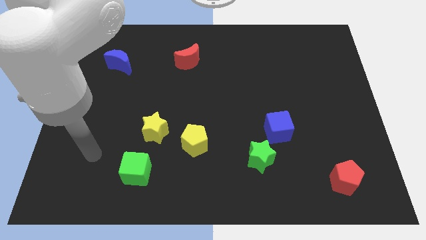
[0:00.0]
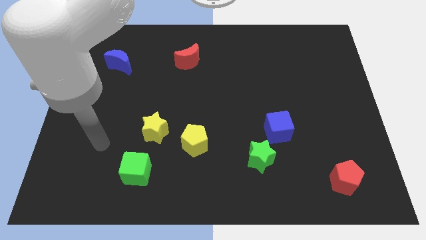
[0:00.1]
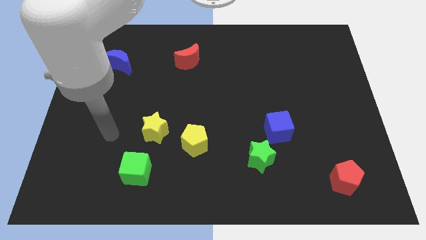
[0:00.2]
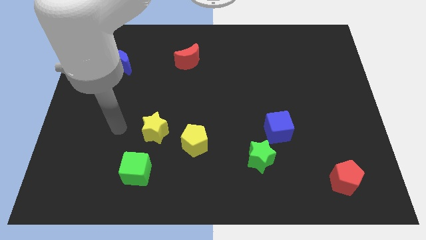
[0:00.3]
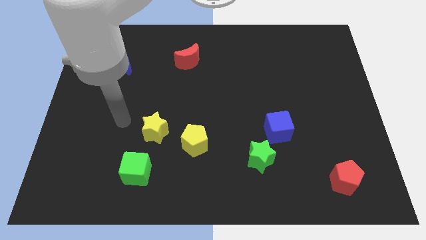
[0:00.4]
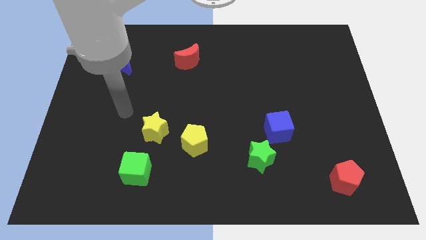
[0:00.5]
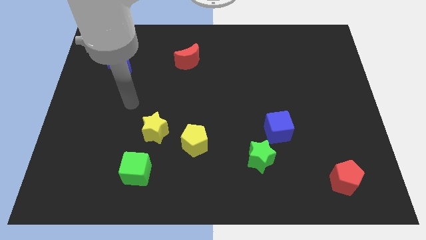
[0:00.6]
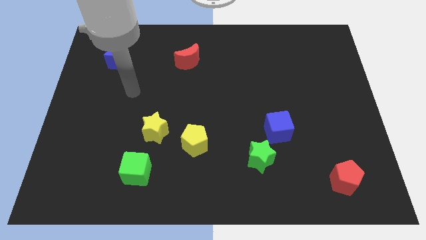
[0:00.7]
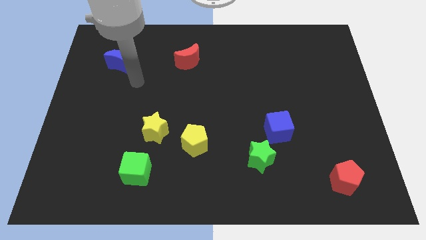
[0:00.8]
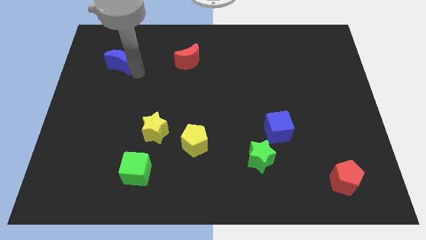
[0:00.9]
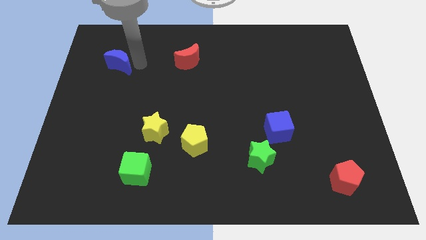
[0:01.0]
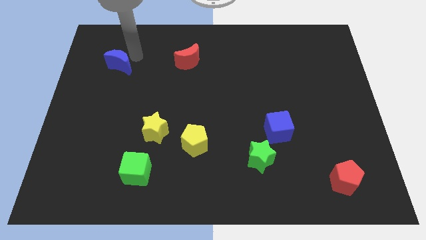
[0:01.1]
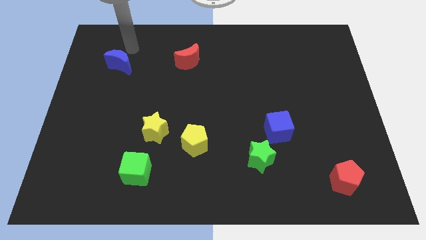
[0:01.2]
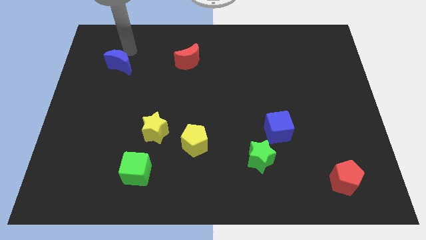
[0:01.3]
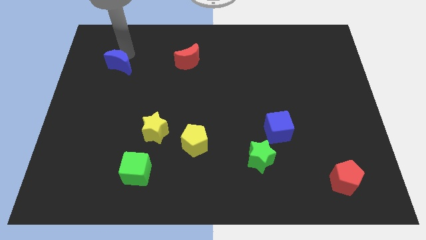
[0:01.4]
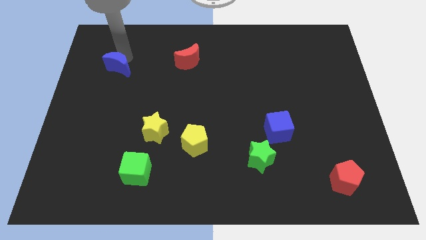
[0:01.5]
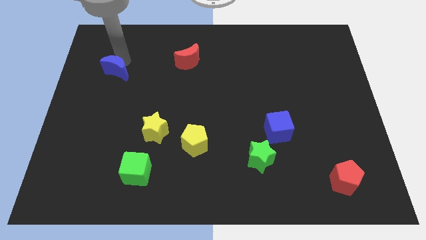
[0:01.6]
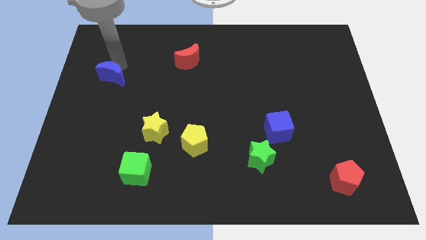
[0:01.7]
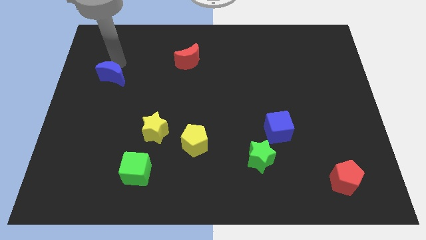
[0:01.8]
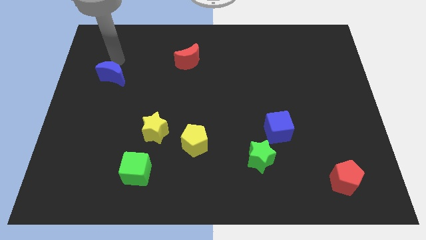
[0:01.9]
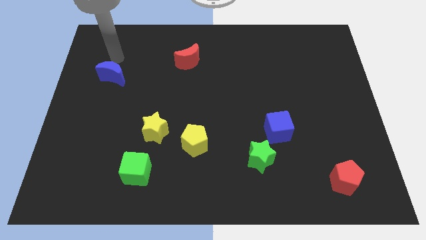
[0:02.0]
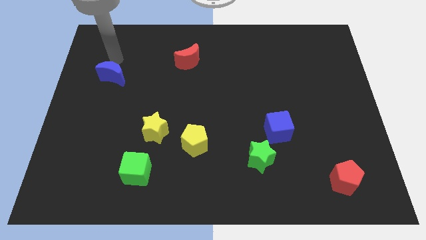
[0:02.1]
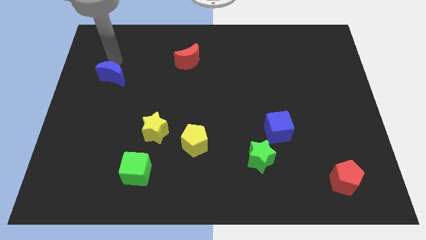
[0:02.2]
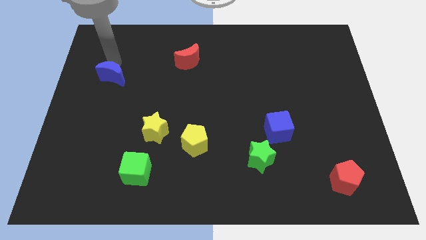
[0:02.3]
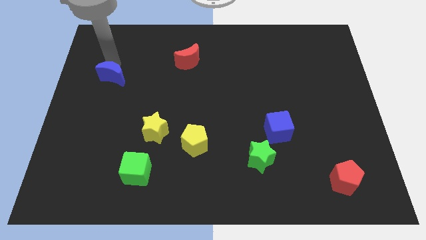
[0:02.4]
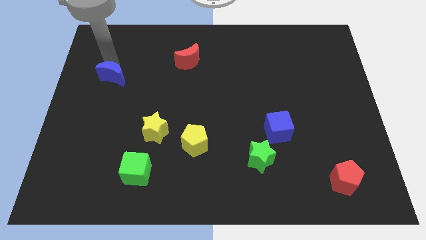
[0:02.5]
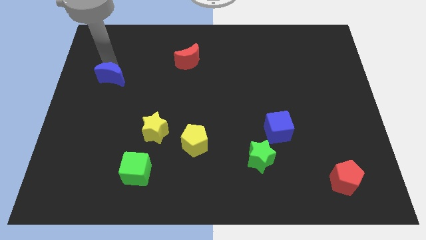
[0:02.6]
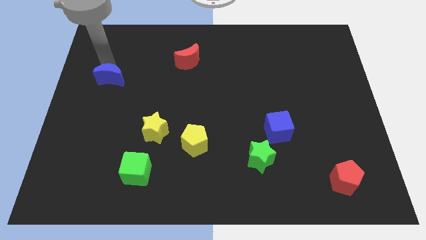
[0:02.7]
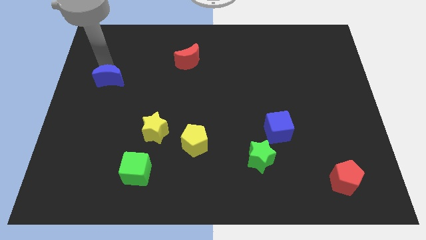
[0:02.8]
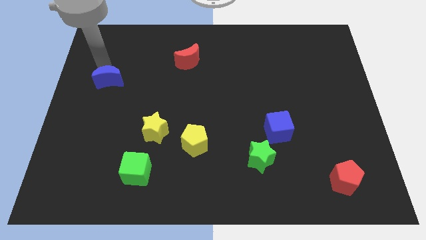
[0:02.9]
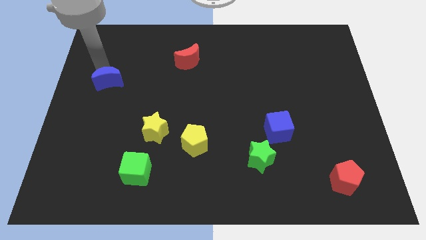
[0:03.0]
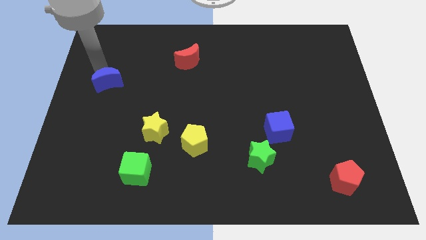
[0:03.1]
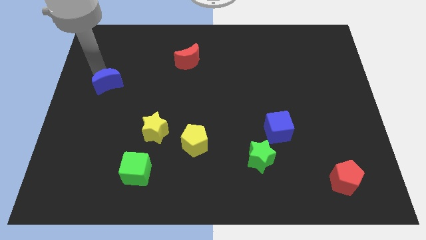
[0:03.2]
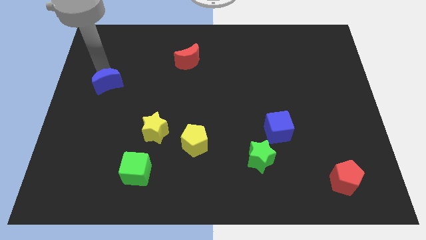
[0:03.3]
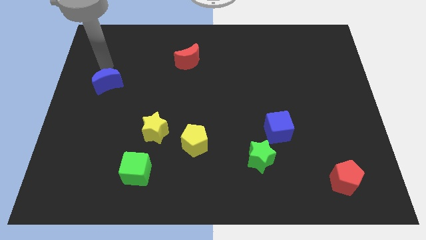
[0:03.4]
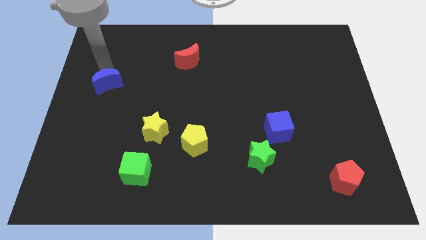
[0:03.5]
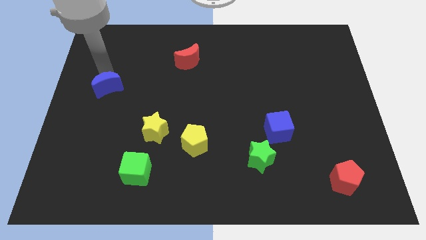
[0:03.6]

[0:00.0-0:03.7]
move the blue moon downwards a bit

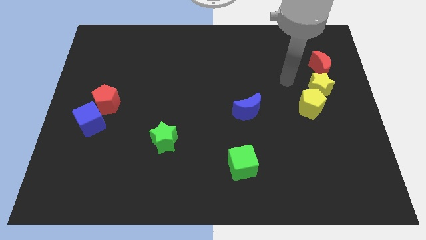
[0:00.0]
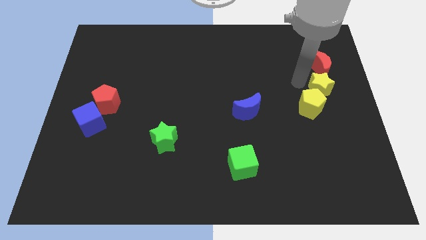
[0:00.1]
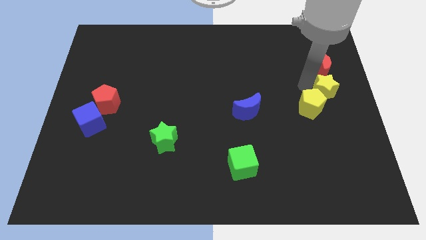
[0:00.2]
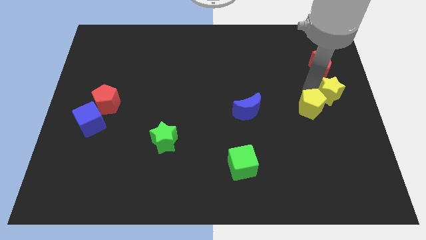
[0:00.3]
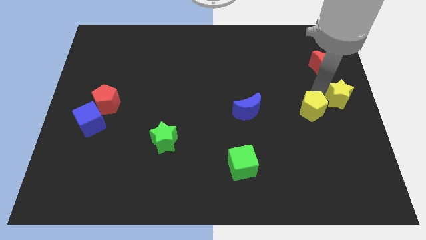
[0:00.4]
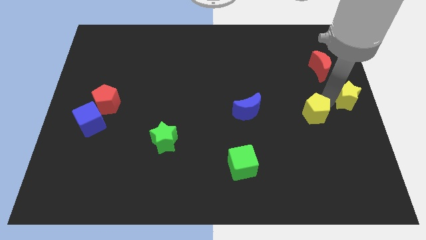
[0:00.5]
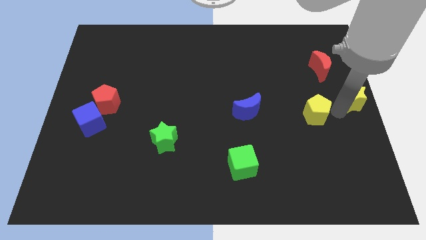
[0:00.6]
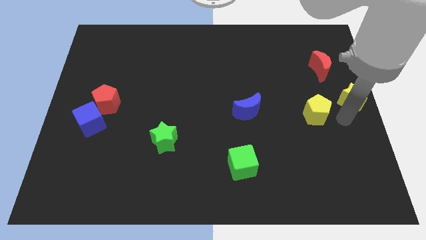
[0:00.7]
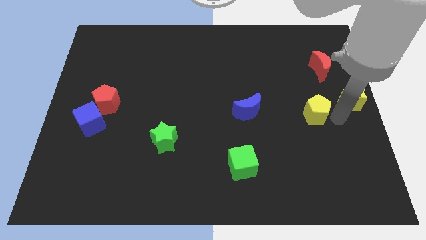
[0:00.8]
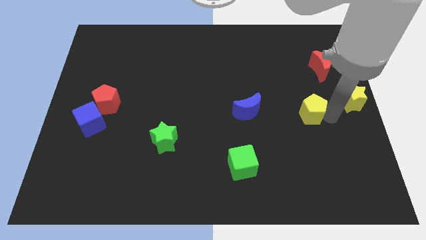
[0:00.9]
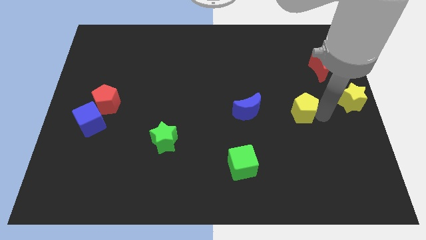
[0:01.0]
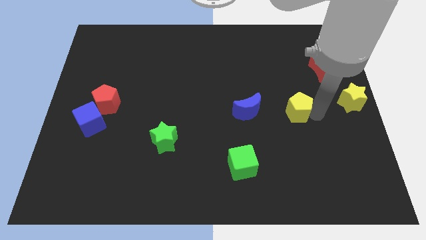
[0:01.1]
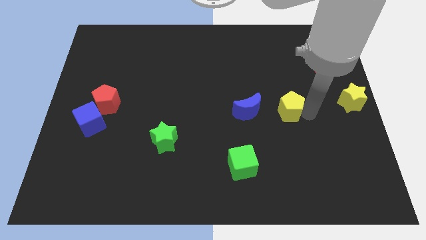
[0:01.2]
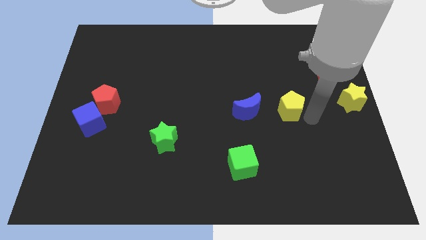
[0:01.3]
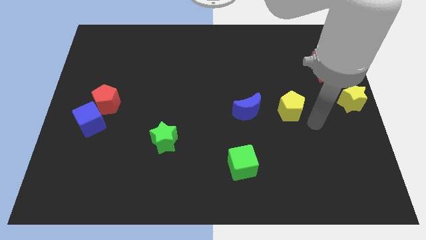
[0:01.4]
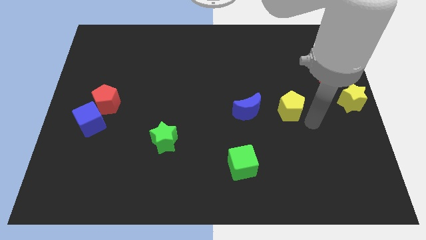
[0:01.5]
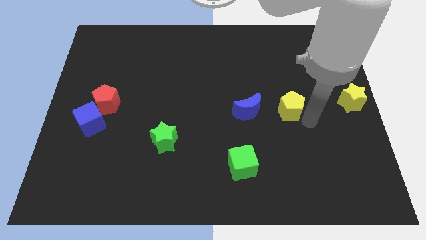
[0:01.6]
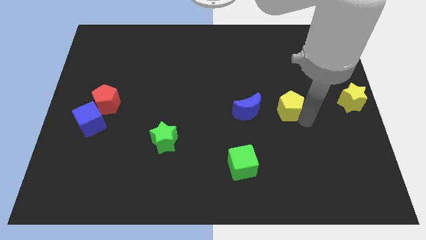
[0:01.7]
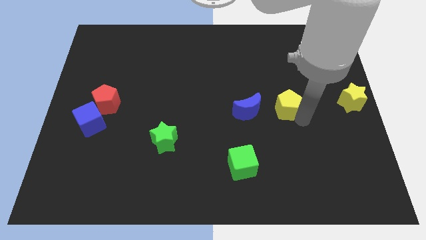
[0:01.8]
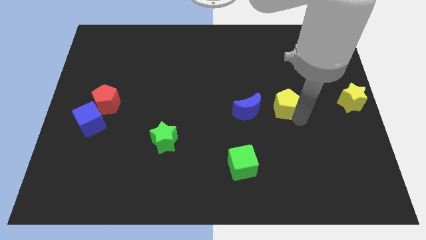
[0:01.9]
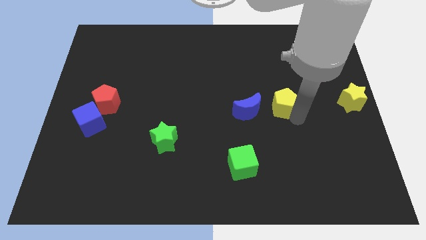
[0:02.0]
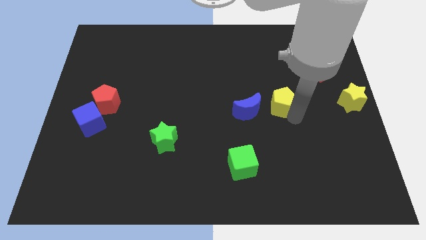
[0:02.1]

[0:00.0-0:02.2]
push the yellow pentagon a bit left

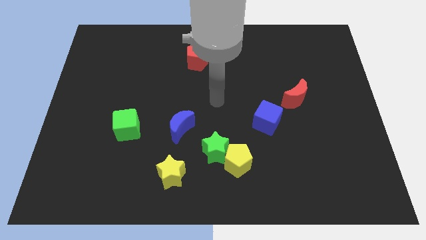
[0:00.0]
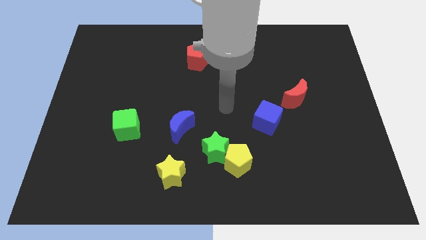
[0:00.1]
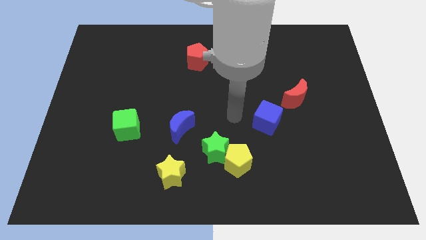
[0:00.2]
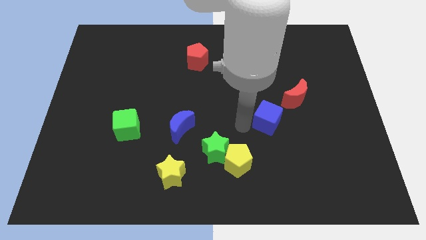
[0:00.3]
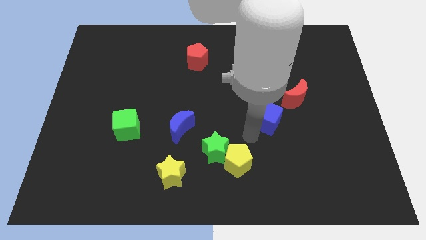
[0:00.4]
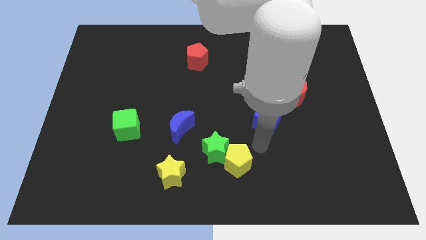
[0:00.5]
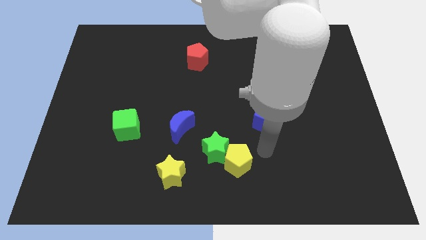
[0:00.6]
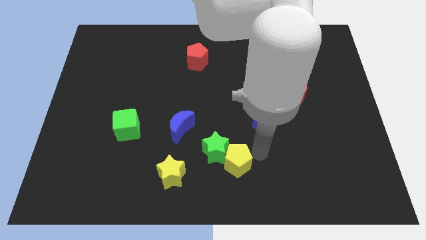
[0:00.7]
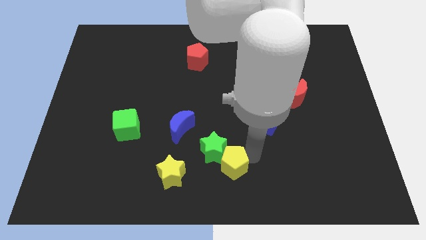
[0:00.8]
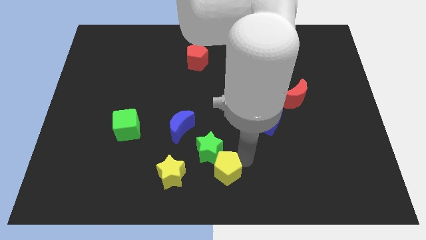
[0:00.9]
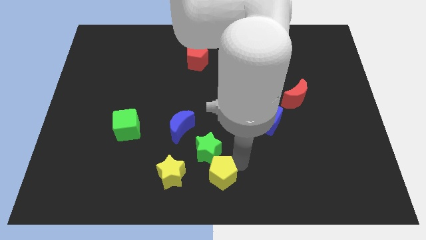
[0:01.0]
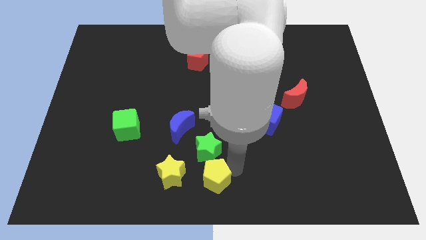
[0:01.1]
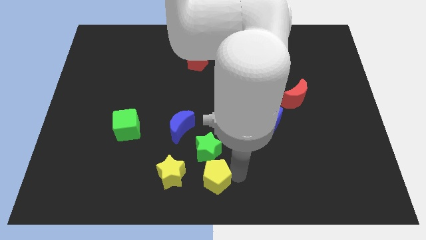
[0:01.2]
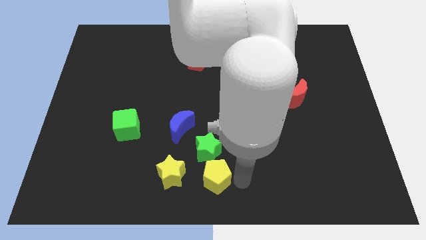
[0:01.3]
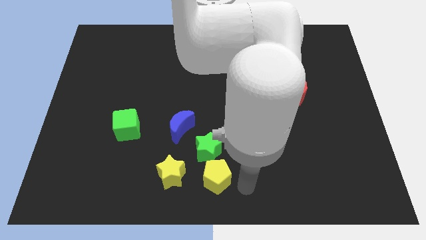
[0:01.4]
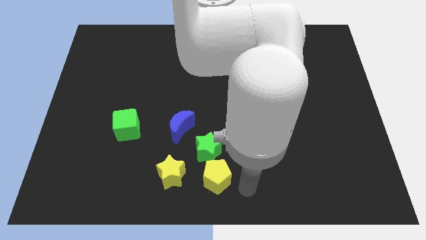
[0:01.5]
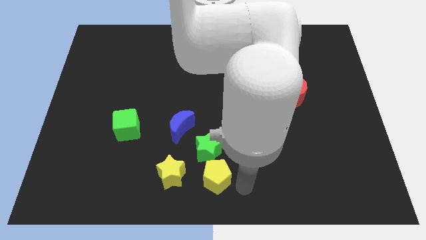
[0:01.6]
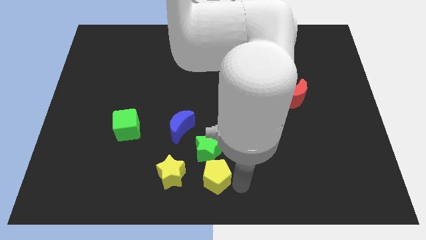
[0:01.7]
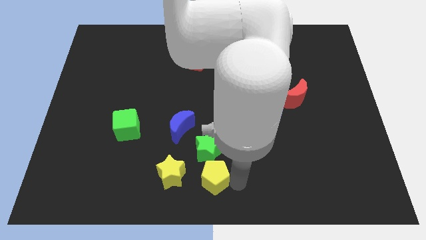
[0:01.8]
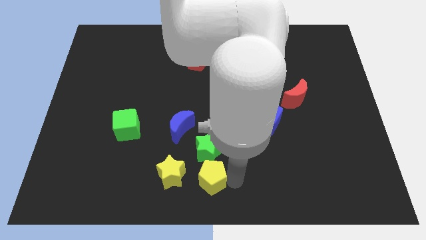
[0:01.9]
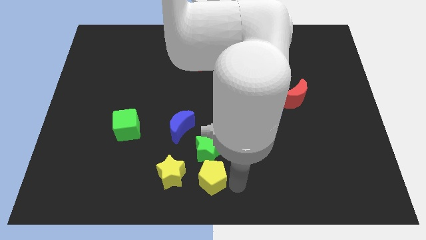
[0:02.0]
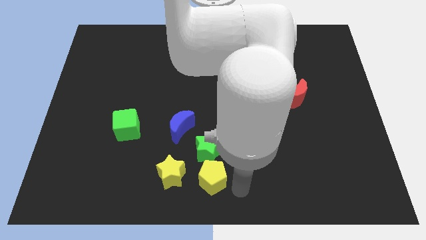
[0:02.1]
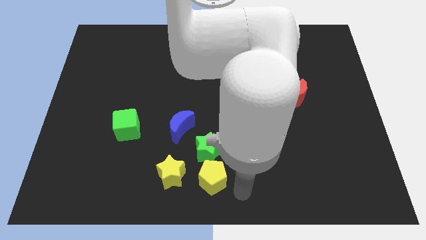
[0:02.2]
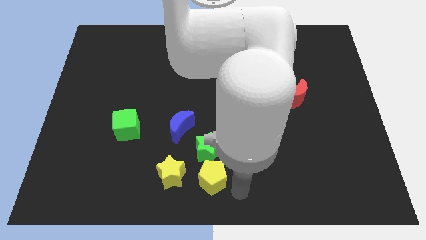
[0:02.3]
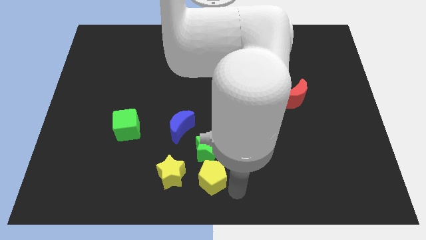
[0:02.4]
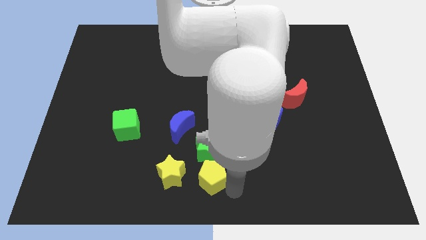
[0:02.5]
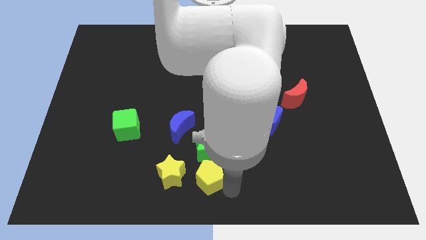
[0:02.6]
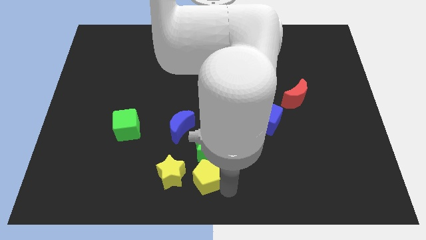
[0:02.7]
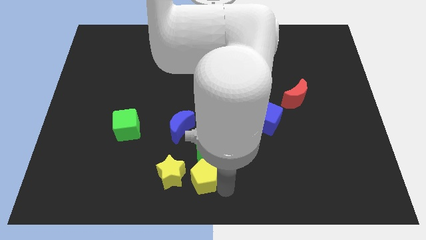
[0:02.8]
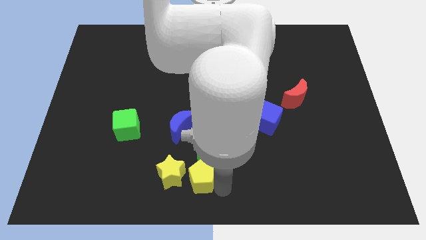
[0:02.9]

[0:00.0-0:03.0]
push the yellow pentagon to the left a bit
